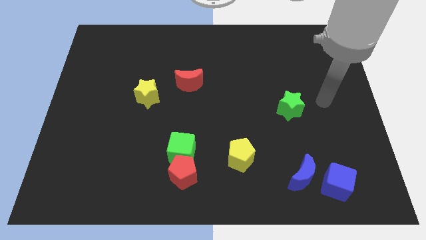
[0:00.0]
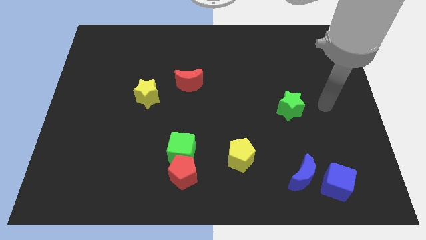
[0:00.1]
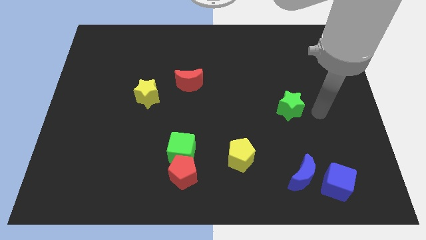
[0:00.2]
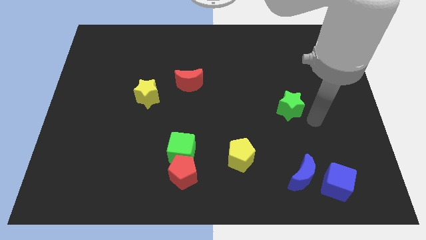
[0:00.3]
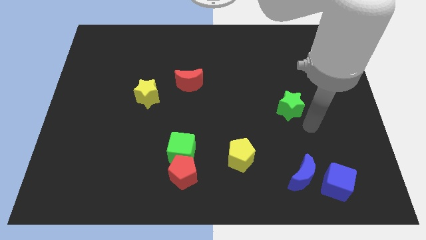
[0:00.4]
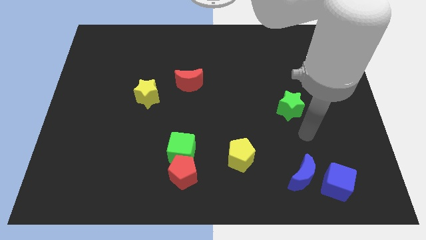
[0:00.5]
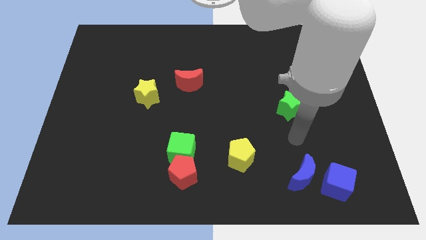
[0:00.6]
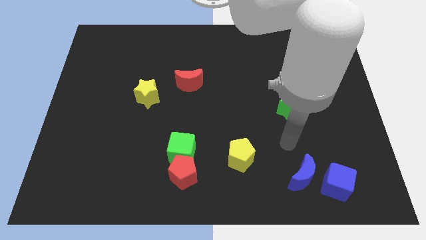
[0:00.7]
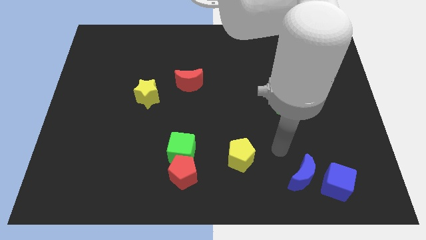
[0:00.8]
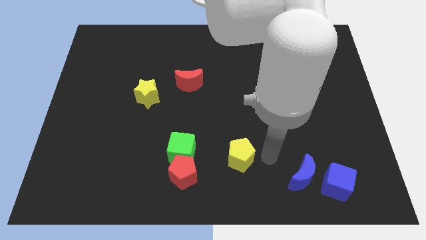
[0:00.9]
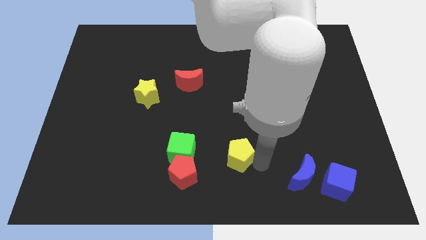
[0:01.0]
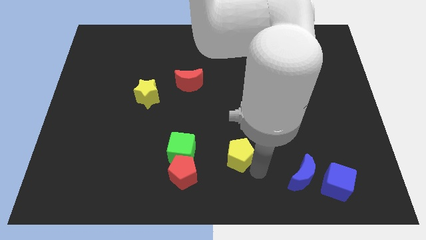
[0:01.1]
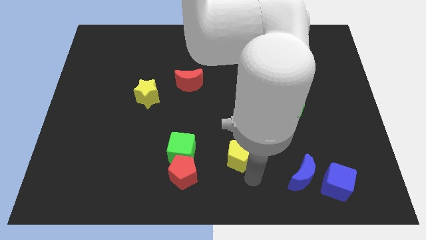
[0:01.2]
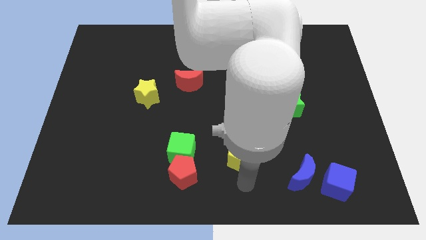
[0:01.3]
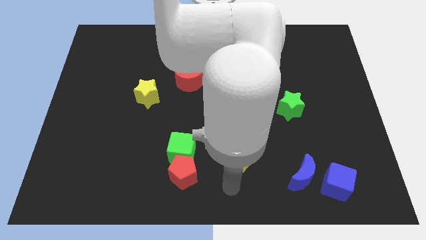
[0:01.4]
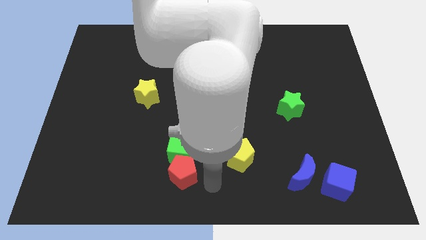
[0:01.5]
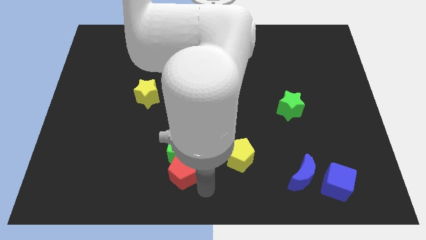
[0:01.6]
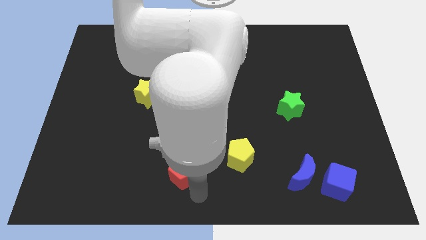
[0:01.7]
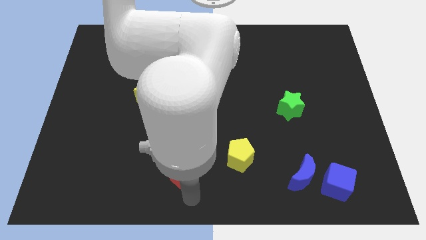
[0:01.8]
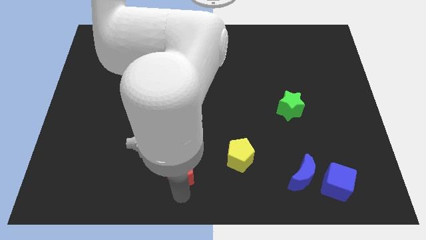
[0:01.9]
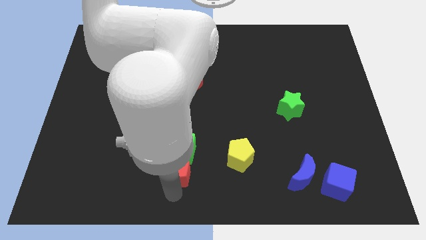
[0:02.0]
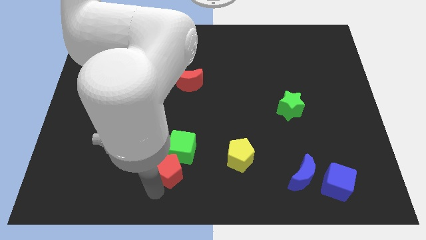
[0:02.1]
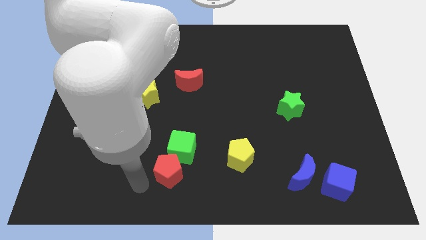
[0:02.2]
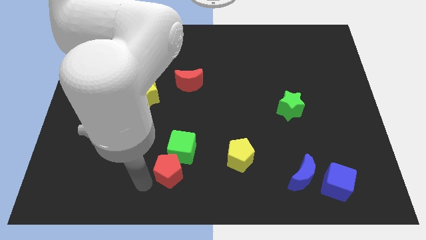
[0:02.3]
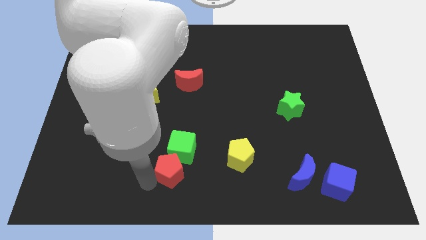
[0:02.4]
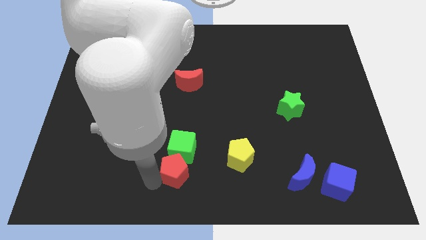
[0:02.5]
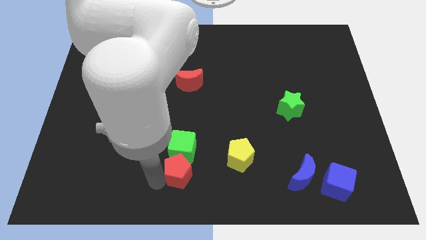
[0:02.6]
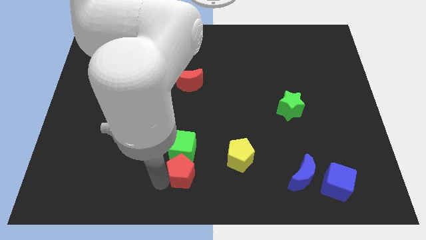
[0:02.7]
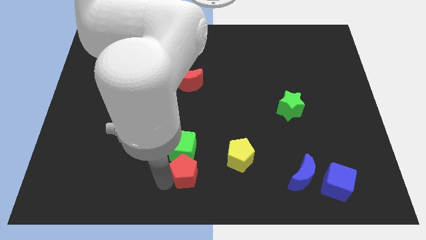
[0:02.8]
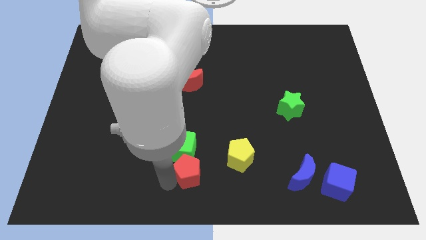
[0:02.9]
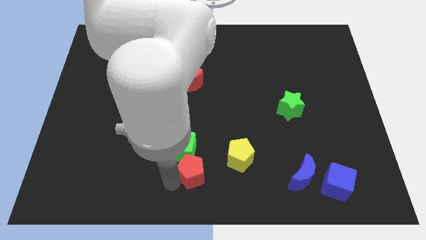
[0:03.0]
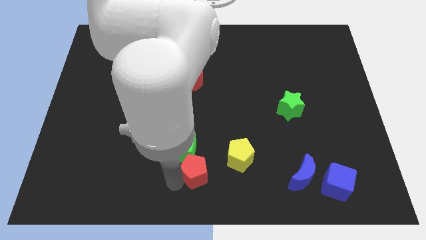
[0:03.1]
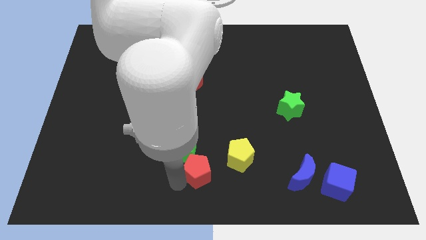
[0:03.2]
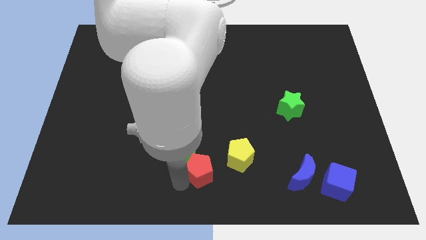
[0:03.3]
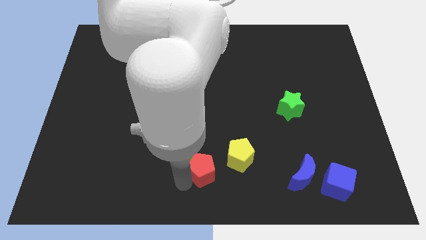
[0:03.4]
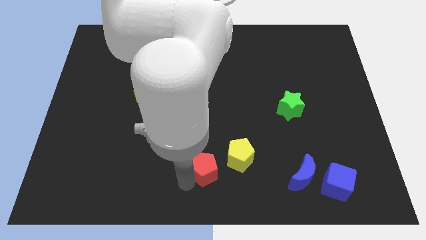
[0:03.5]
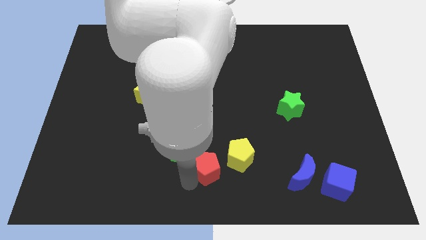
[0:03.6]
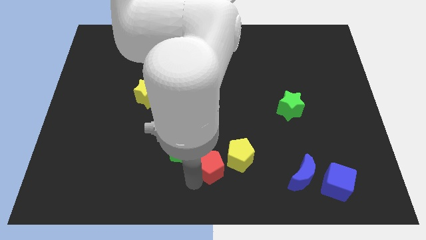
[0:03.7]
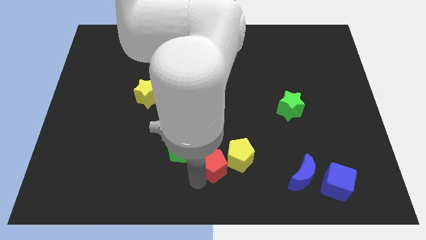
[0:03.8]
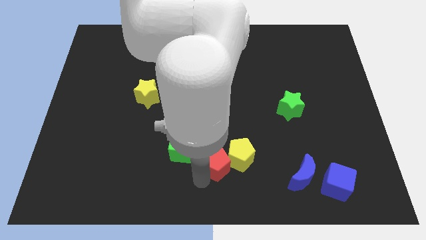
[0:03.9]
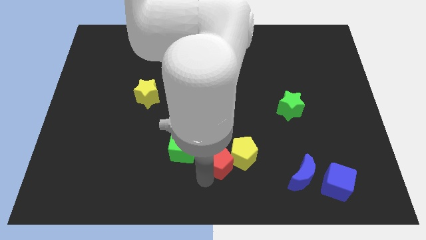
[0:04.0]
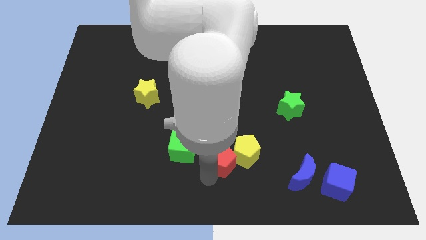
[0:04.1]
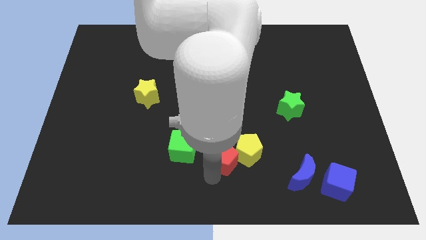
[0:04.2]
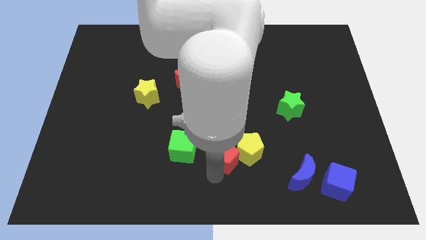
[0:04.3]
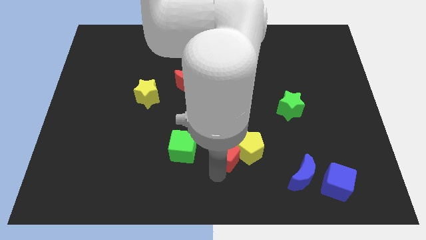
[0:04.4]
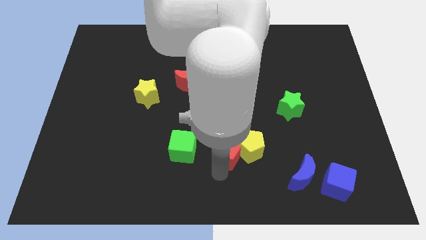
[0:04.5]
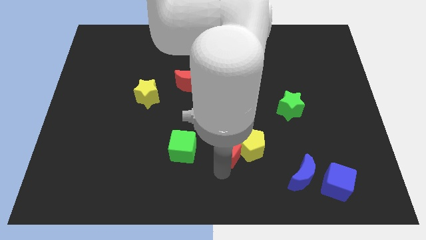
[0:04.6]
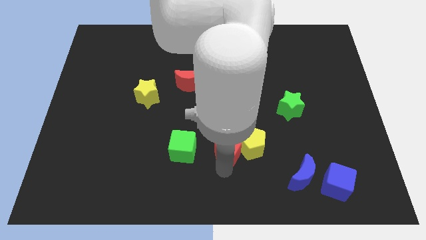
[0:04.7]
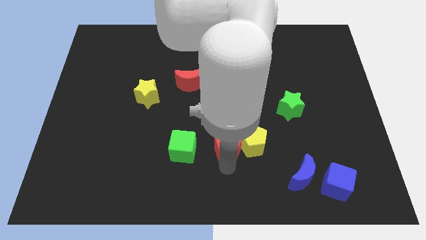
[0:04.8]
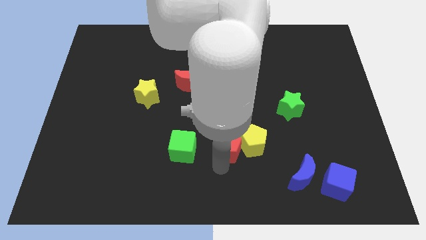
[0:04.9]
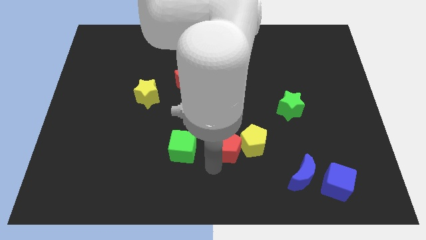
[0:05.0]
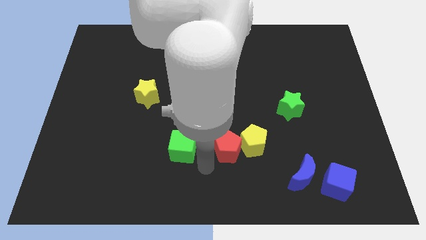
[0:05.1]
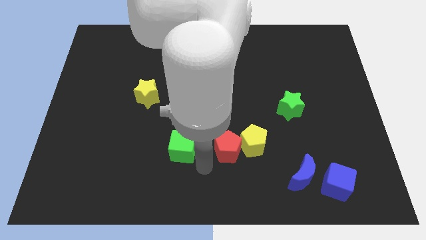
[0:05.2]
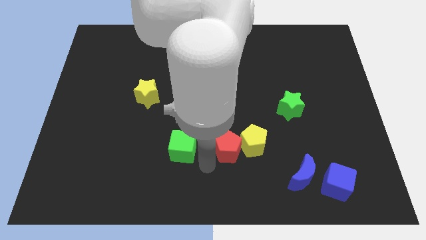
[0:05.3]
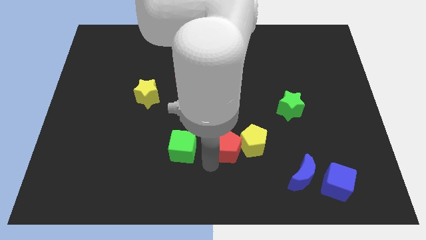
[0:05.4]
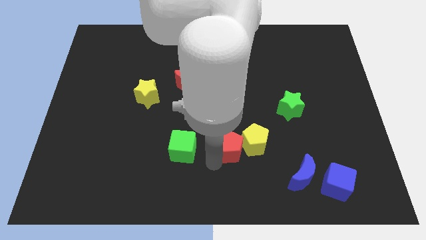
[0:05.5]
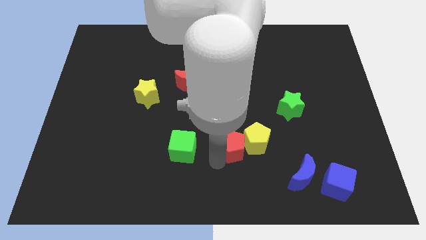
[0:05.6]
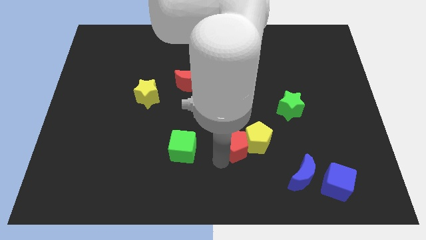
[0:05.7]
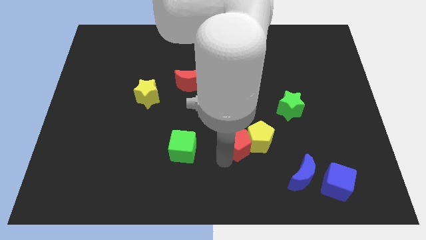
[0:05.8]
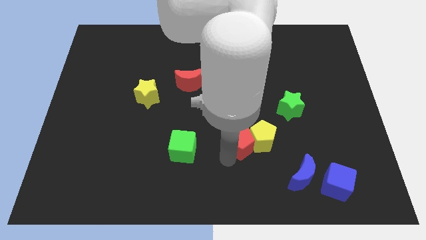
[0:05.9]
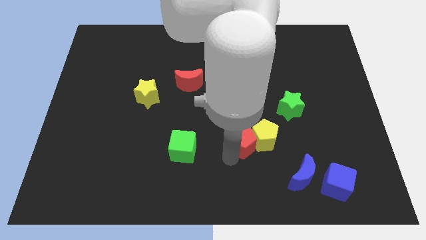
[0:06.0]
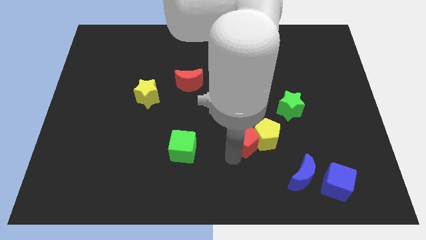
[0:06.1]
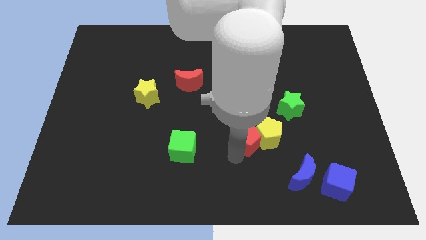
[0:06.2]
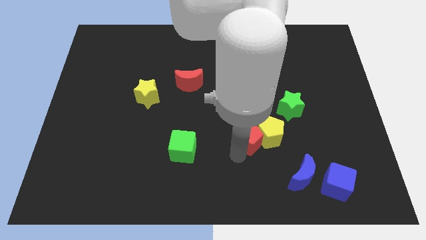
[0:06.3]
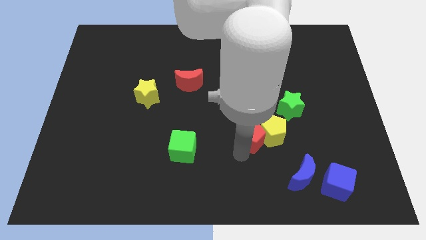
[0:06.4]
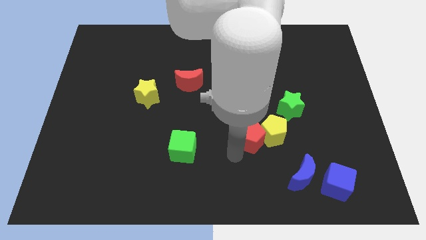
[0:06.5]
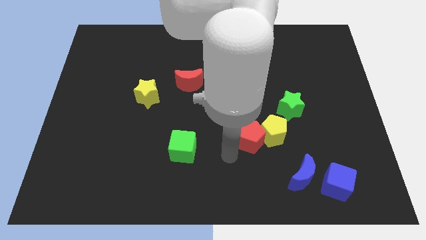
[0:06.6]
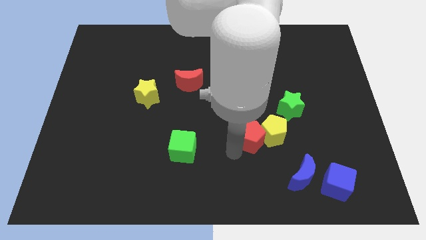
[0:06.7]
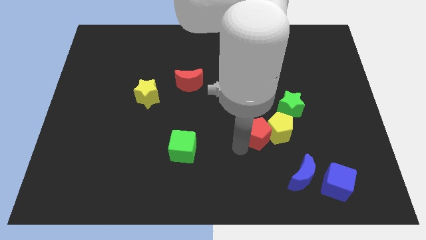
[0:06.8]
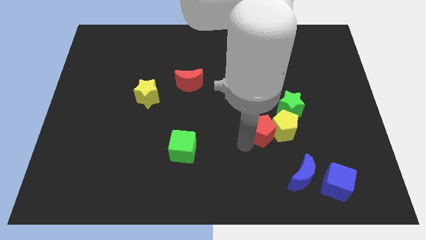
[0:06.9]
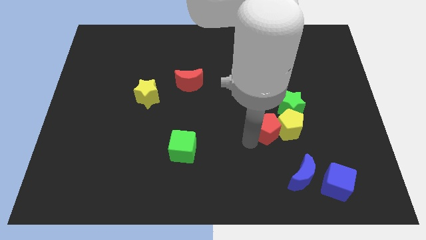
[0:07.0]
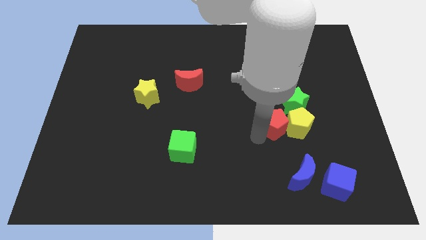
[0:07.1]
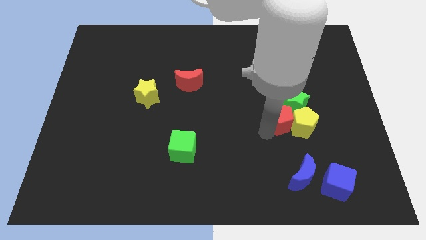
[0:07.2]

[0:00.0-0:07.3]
put the red pentagon close to the green star

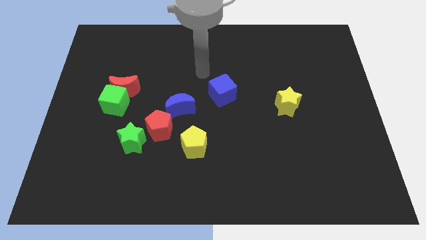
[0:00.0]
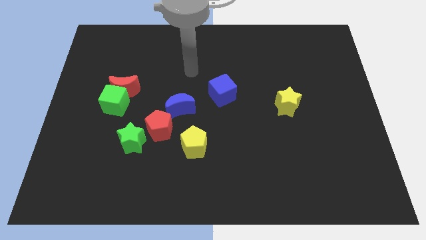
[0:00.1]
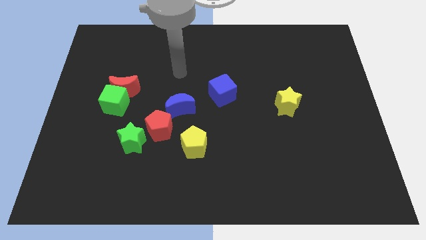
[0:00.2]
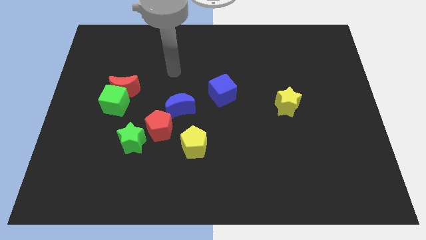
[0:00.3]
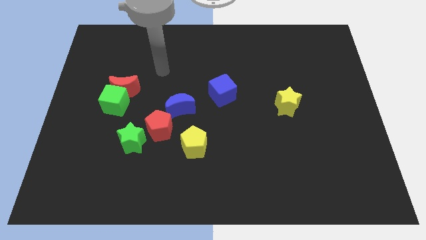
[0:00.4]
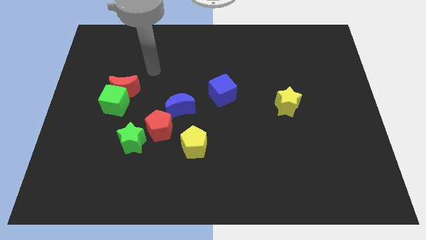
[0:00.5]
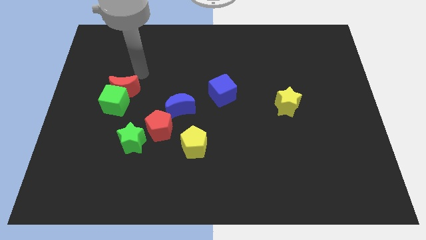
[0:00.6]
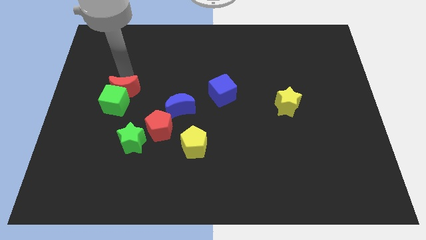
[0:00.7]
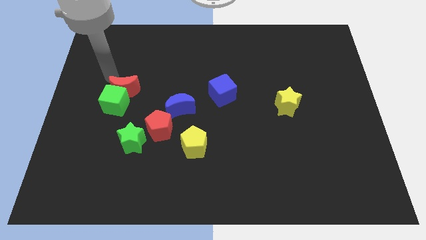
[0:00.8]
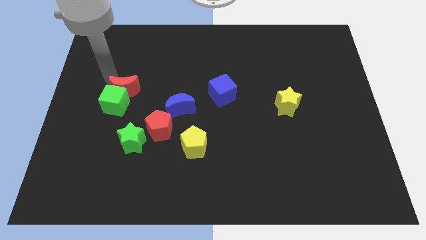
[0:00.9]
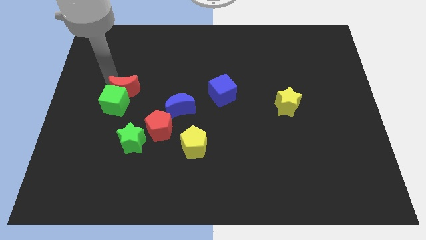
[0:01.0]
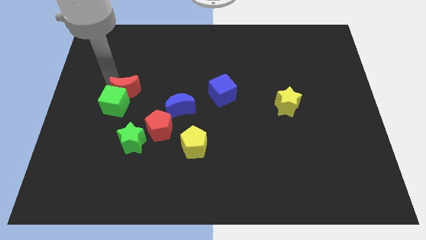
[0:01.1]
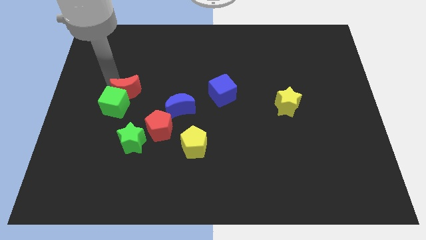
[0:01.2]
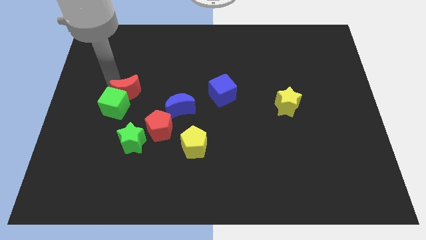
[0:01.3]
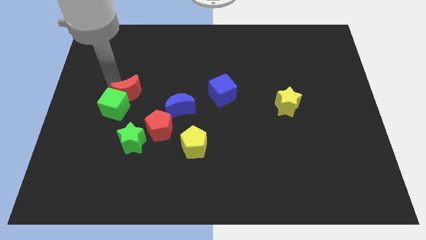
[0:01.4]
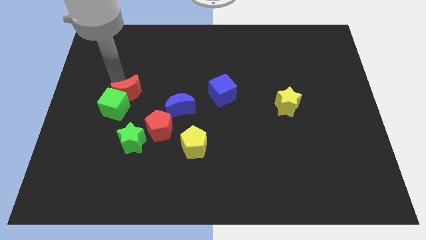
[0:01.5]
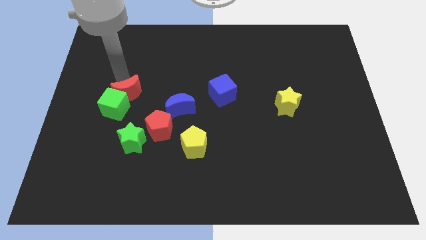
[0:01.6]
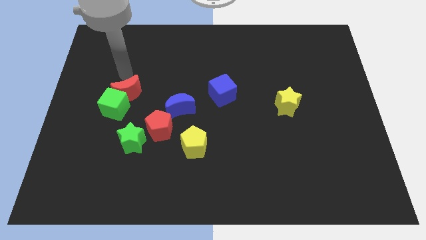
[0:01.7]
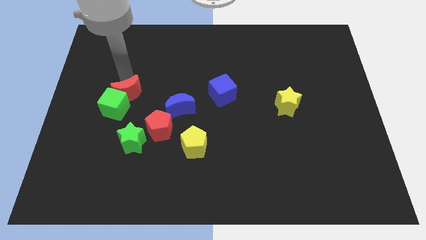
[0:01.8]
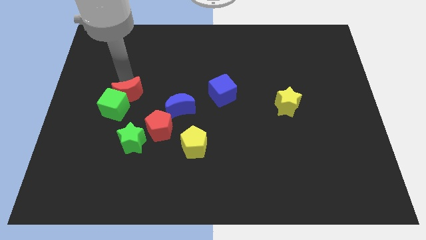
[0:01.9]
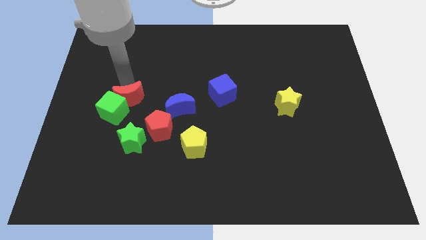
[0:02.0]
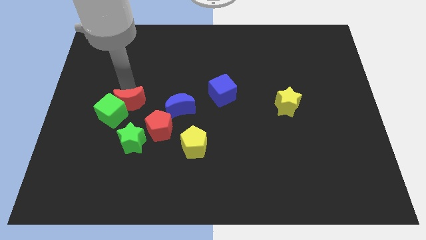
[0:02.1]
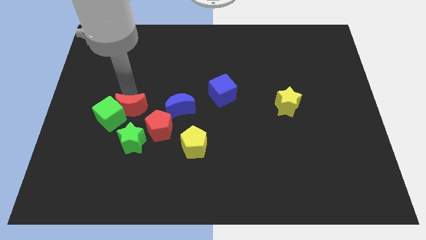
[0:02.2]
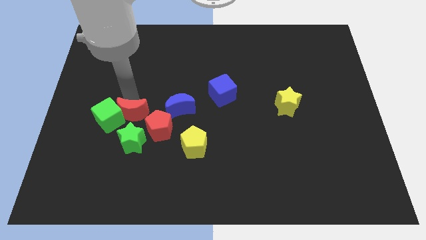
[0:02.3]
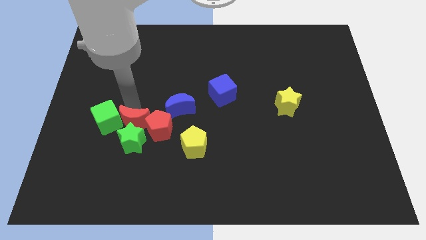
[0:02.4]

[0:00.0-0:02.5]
put the red moon towards the green star
